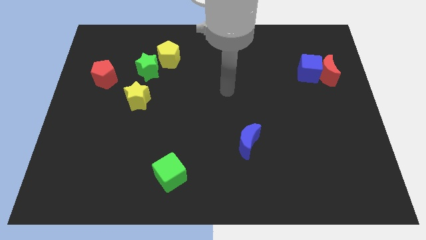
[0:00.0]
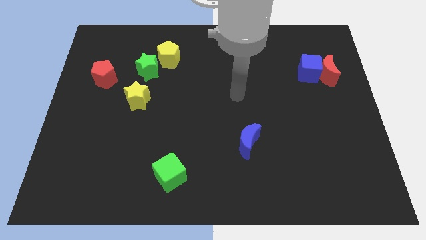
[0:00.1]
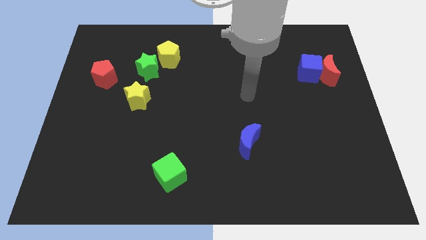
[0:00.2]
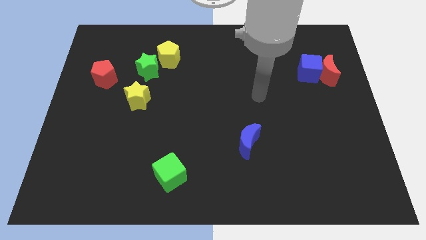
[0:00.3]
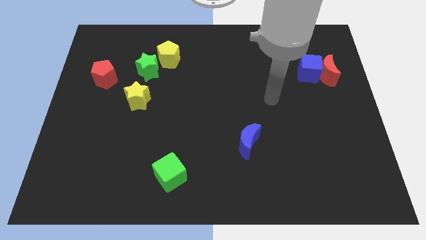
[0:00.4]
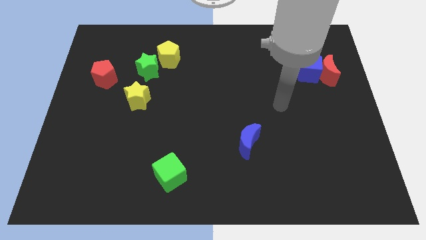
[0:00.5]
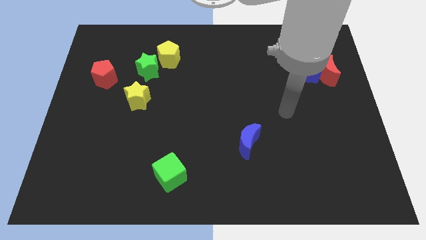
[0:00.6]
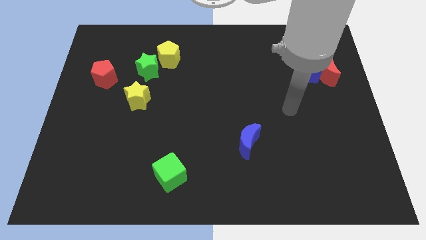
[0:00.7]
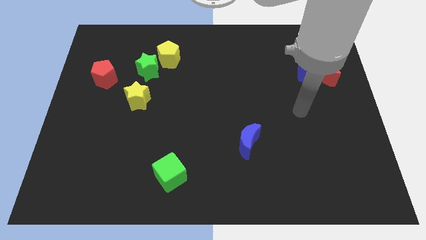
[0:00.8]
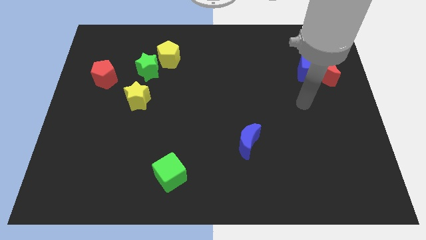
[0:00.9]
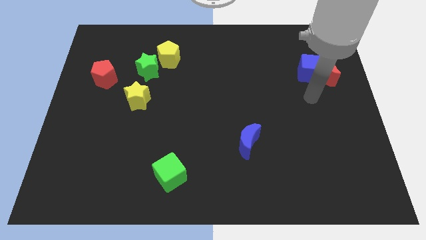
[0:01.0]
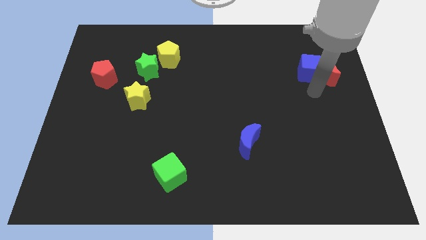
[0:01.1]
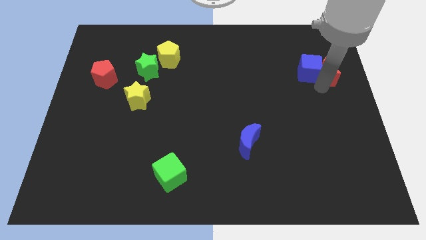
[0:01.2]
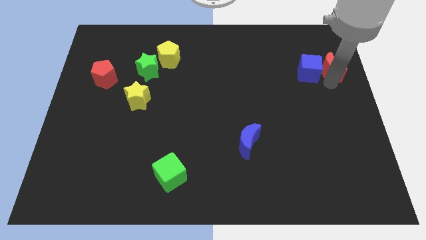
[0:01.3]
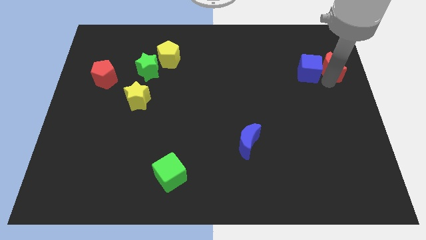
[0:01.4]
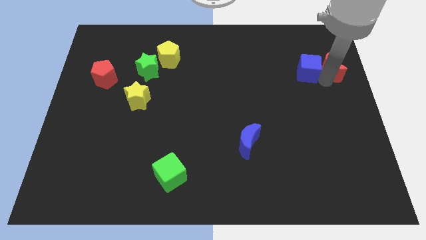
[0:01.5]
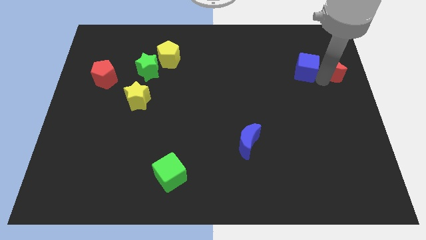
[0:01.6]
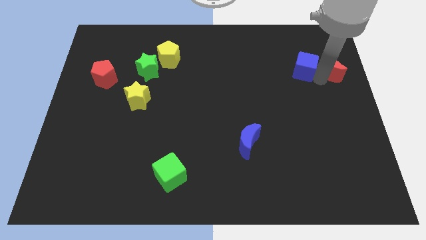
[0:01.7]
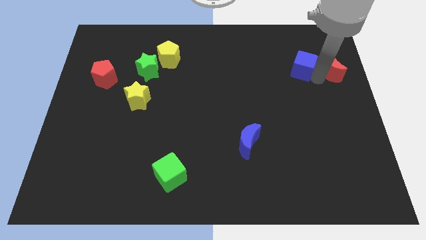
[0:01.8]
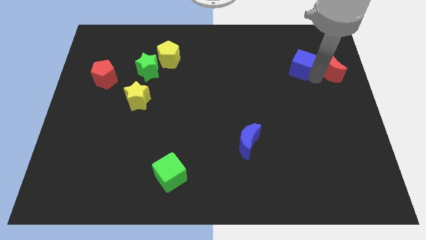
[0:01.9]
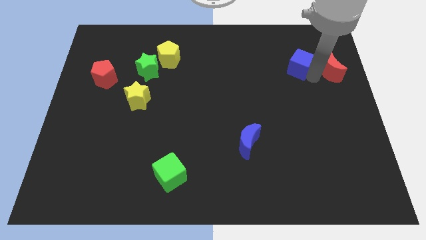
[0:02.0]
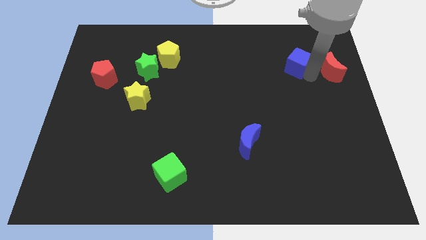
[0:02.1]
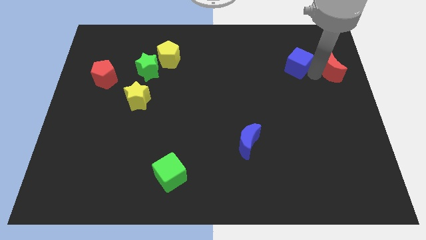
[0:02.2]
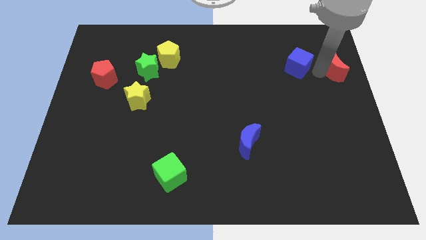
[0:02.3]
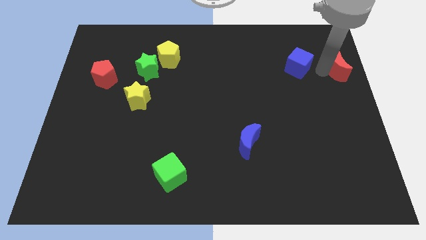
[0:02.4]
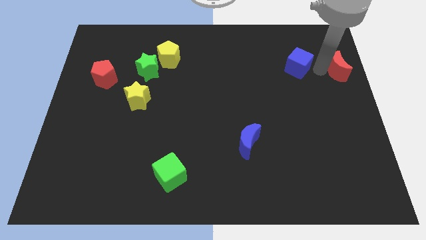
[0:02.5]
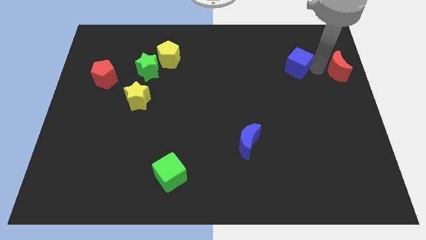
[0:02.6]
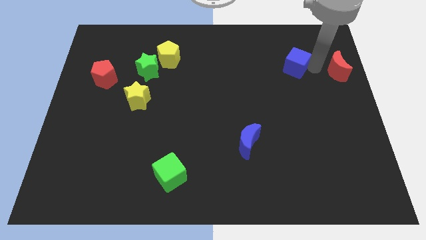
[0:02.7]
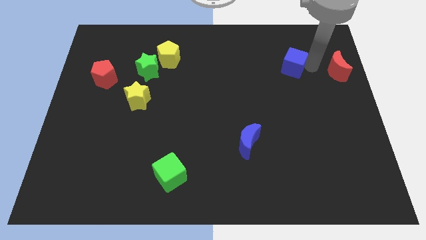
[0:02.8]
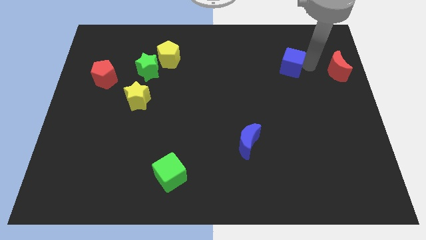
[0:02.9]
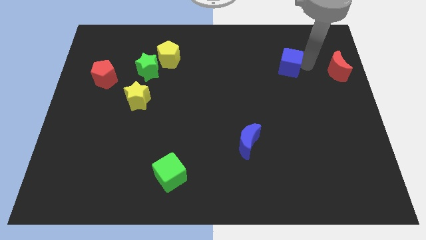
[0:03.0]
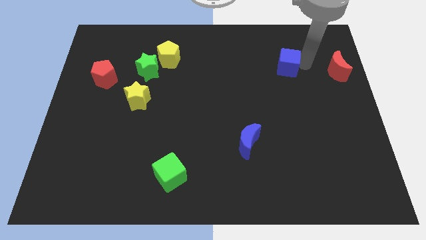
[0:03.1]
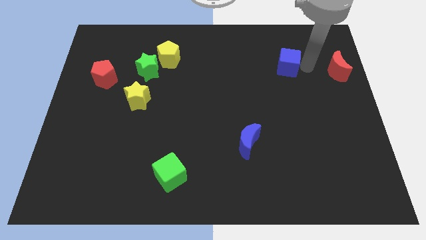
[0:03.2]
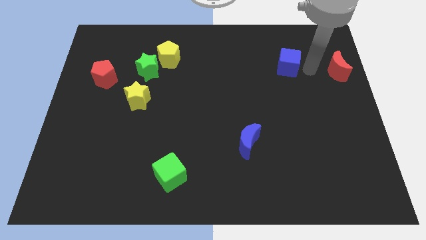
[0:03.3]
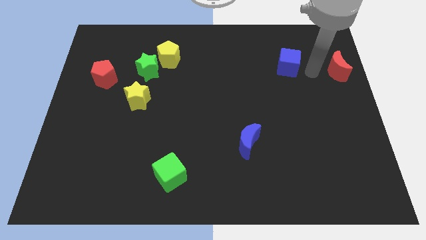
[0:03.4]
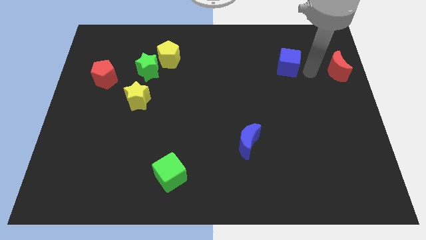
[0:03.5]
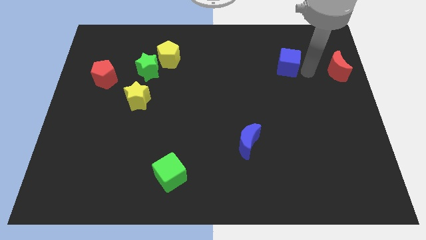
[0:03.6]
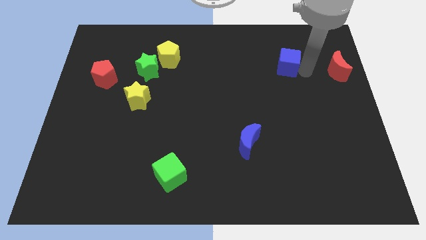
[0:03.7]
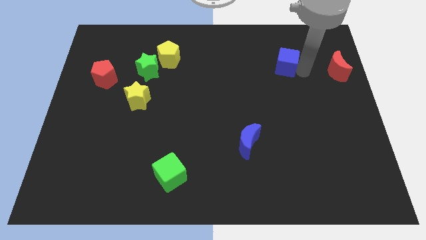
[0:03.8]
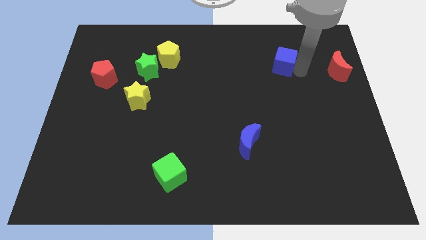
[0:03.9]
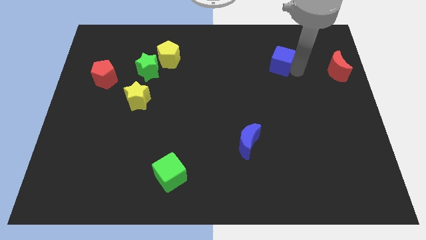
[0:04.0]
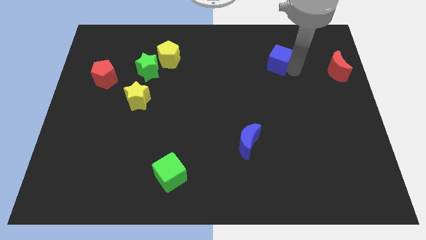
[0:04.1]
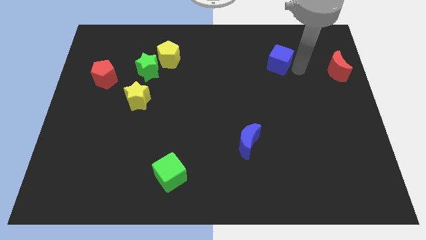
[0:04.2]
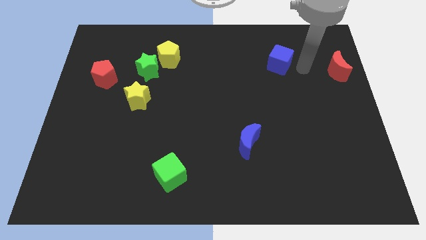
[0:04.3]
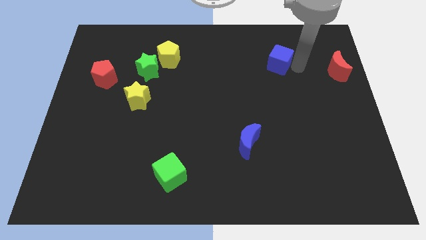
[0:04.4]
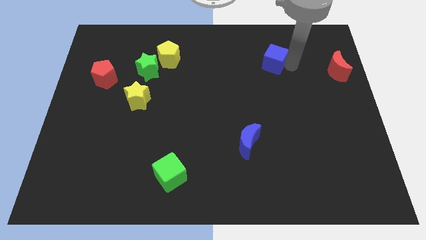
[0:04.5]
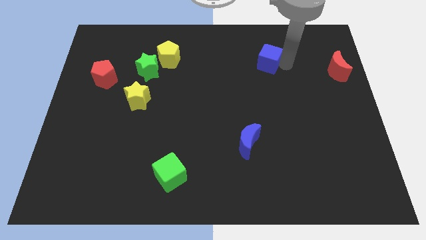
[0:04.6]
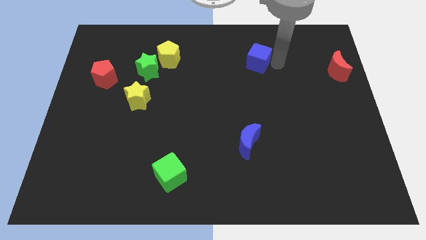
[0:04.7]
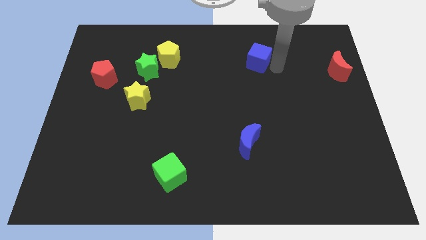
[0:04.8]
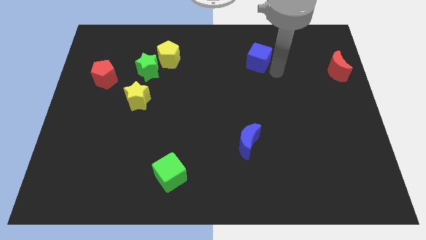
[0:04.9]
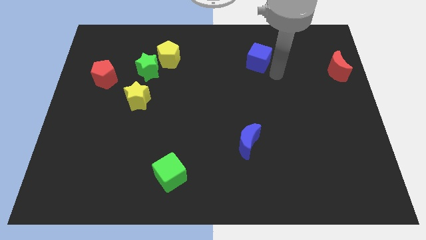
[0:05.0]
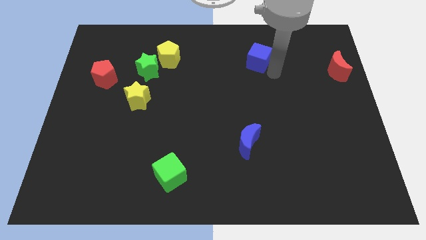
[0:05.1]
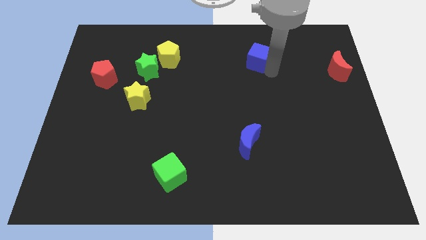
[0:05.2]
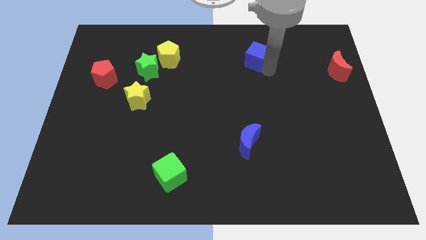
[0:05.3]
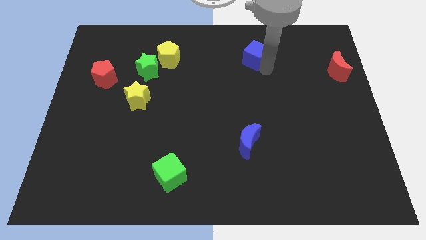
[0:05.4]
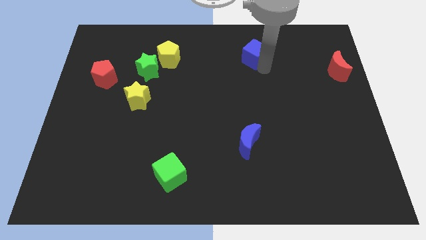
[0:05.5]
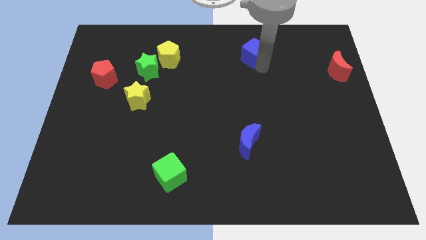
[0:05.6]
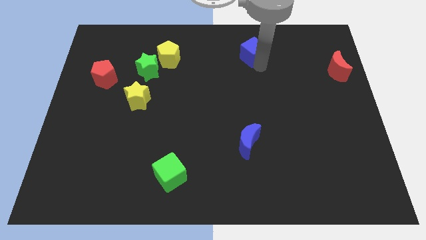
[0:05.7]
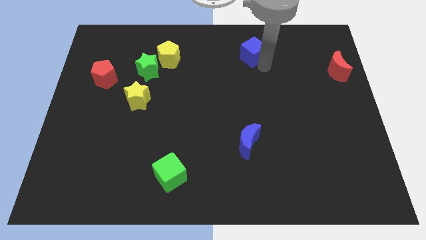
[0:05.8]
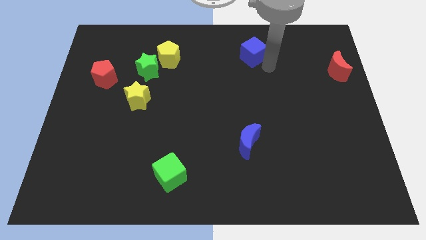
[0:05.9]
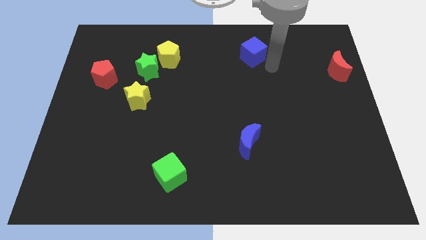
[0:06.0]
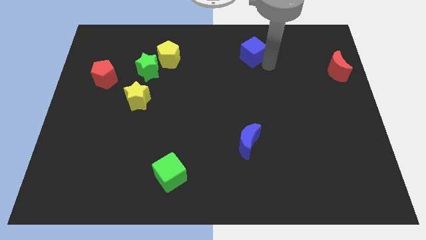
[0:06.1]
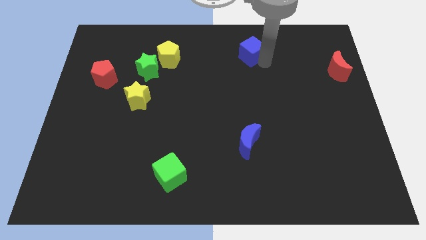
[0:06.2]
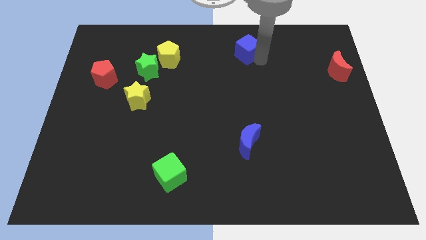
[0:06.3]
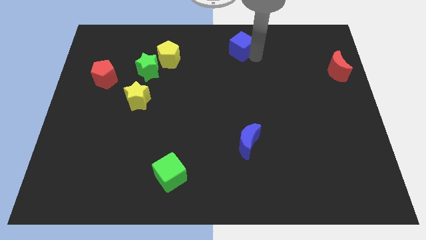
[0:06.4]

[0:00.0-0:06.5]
move the blue cube to the top

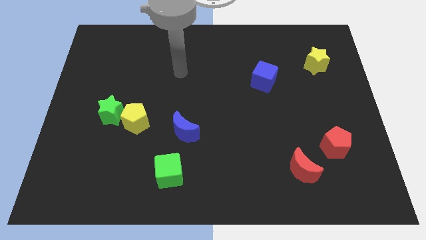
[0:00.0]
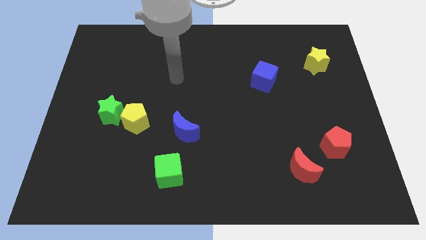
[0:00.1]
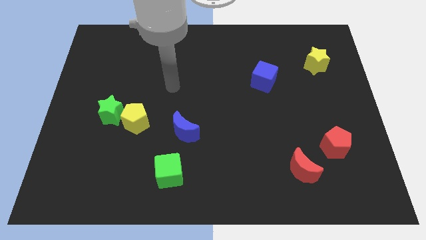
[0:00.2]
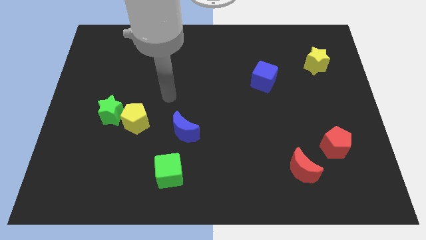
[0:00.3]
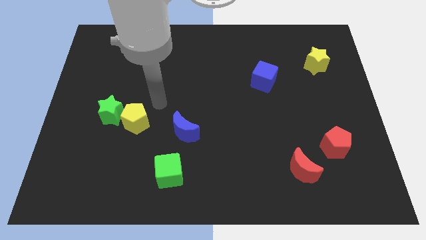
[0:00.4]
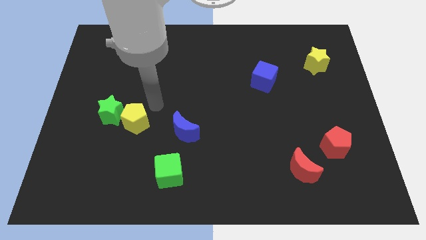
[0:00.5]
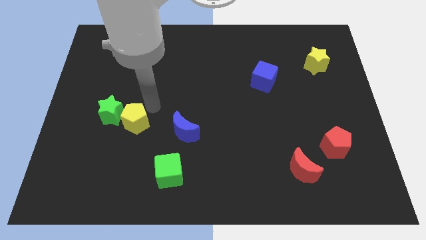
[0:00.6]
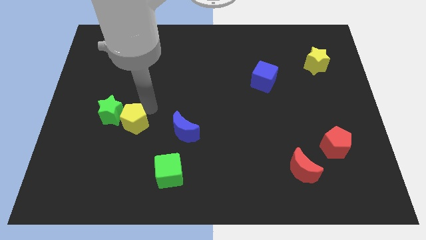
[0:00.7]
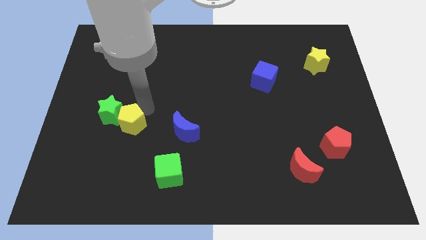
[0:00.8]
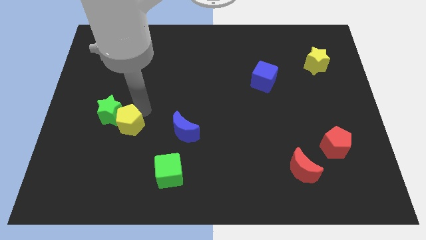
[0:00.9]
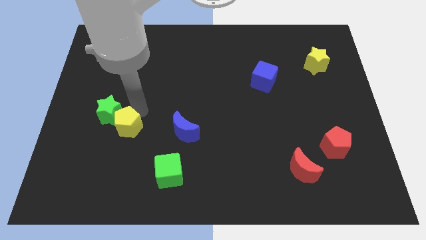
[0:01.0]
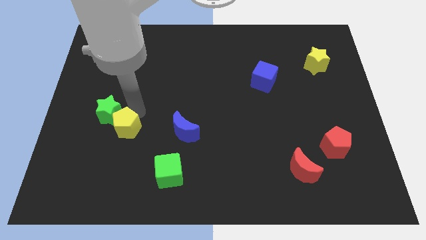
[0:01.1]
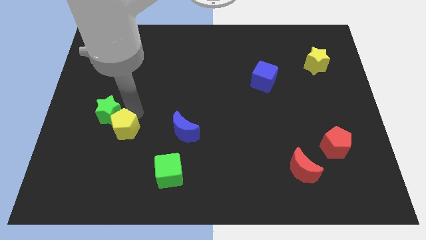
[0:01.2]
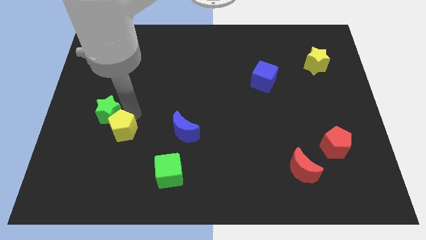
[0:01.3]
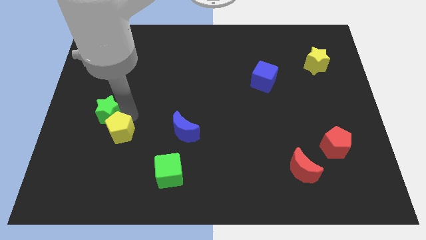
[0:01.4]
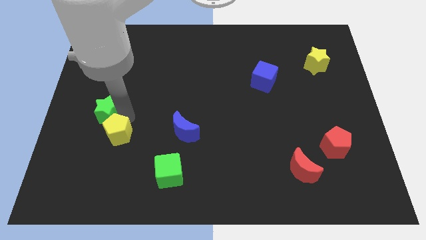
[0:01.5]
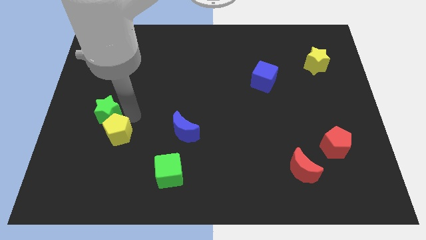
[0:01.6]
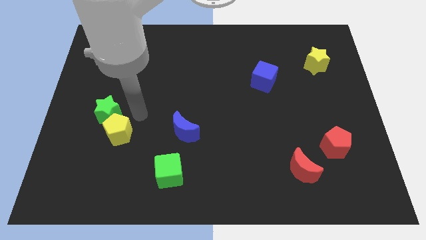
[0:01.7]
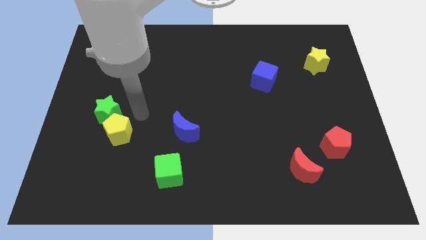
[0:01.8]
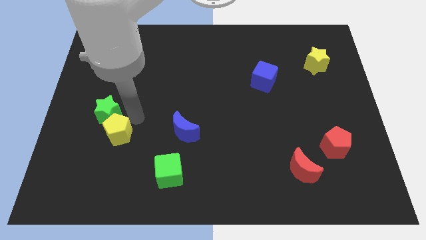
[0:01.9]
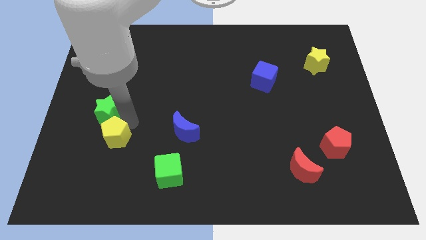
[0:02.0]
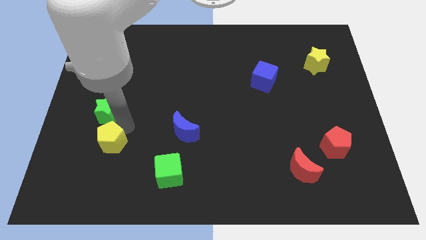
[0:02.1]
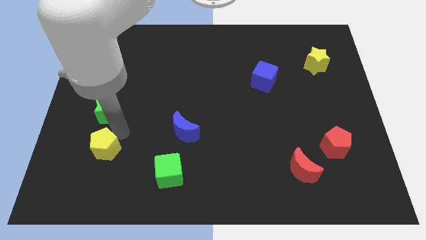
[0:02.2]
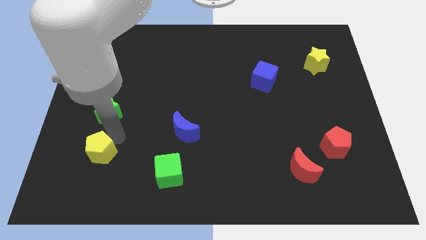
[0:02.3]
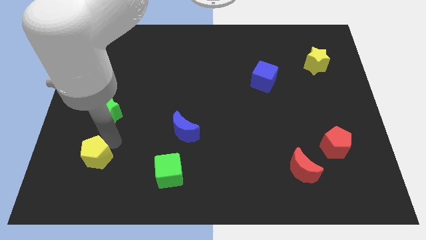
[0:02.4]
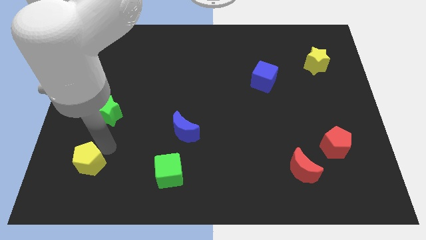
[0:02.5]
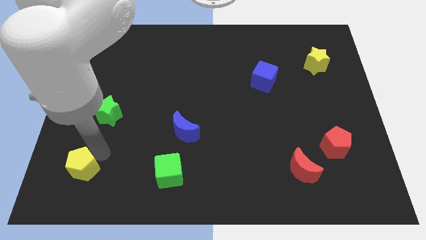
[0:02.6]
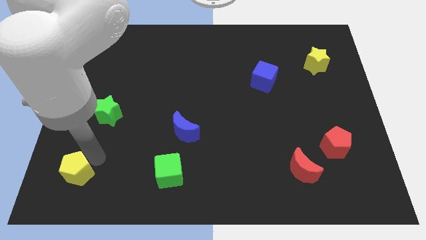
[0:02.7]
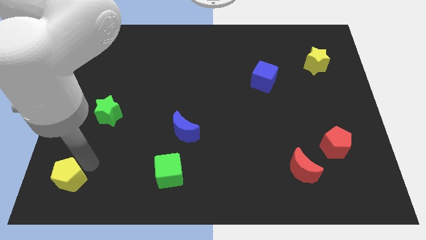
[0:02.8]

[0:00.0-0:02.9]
slide the yellow pentagon to the lower left corner
